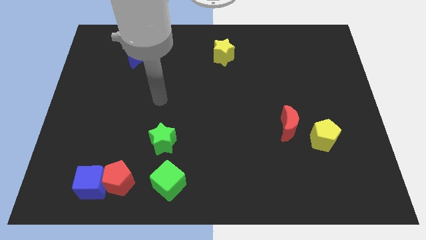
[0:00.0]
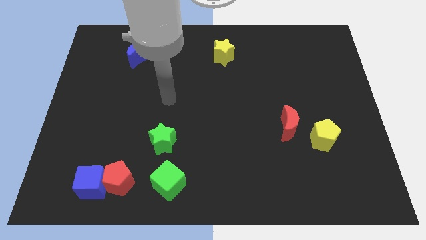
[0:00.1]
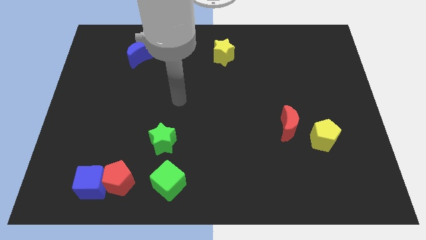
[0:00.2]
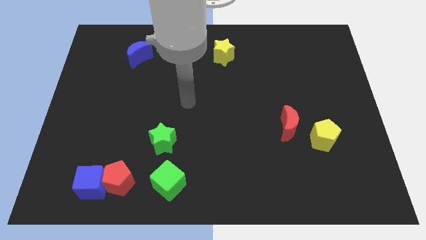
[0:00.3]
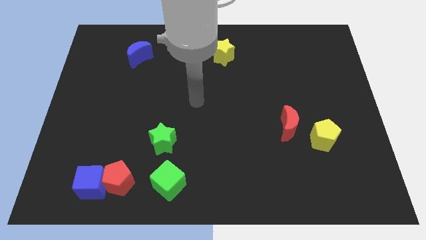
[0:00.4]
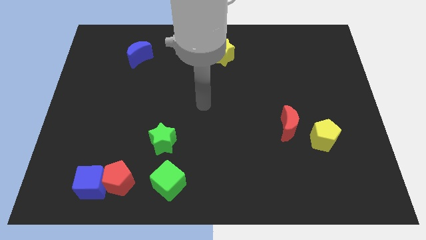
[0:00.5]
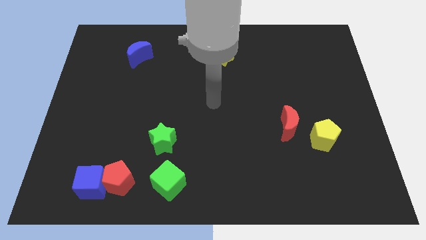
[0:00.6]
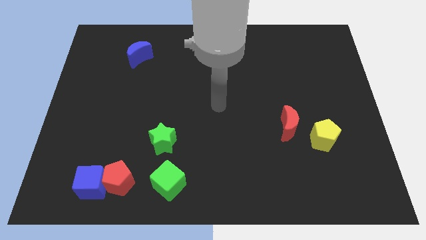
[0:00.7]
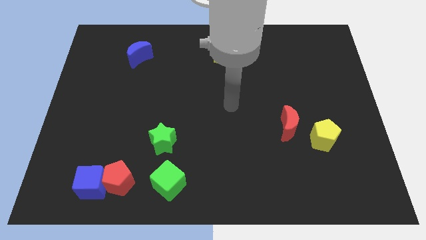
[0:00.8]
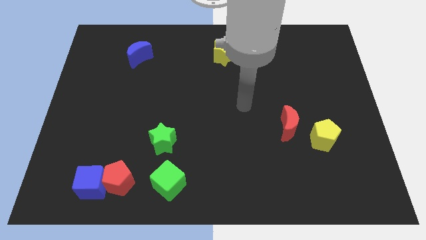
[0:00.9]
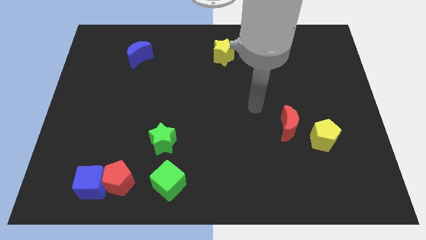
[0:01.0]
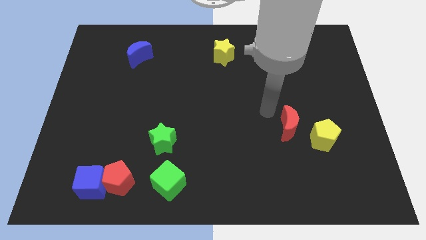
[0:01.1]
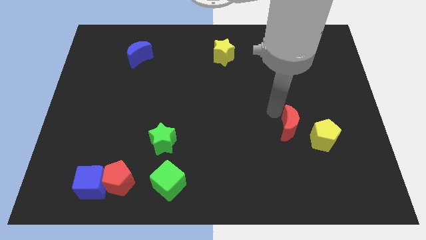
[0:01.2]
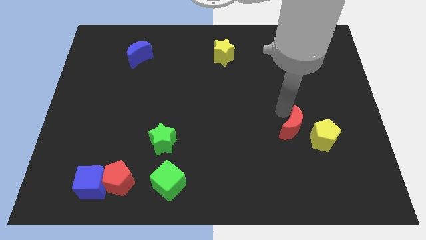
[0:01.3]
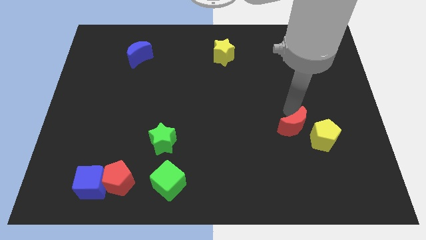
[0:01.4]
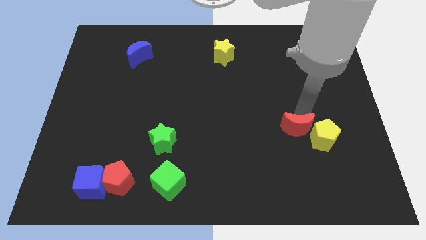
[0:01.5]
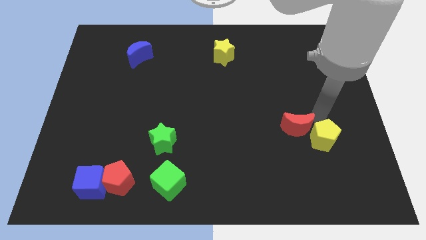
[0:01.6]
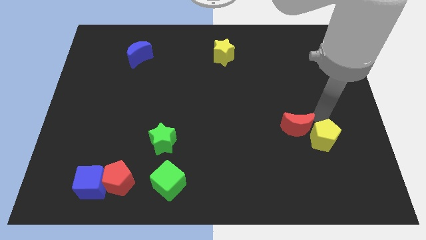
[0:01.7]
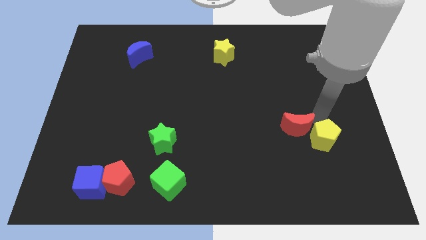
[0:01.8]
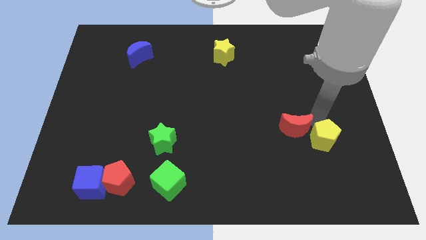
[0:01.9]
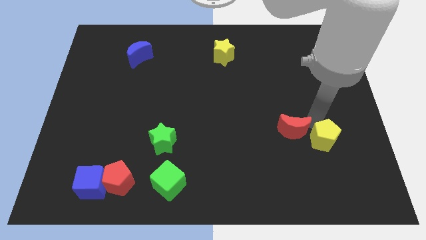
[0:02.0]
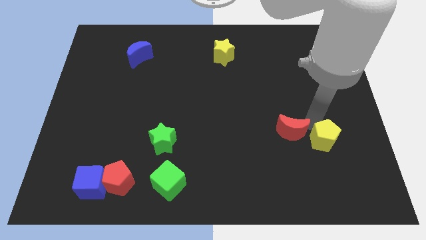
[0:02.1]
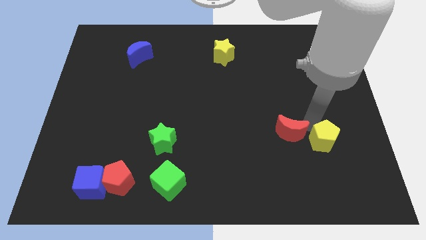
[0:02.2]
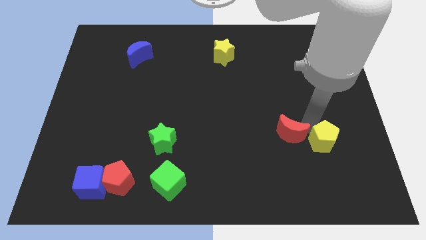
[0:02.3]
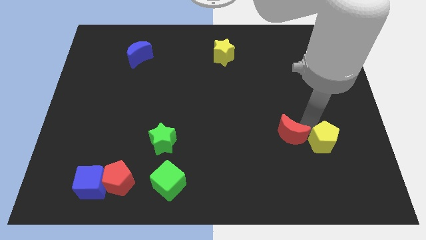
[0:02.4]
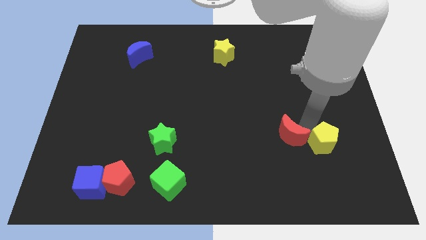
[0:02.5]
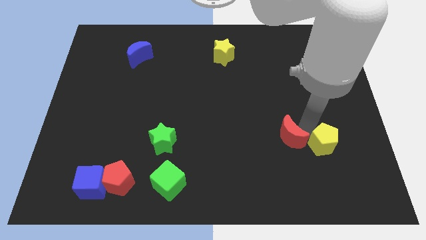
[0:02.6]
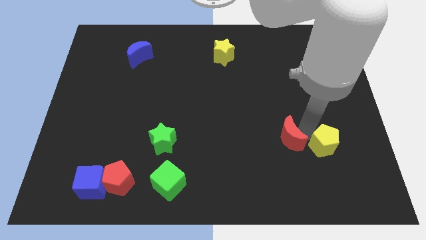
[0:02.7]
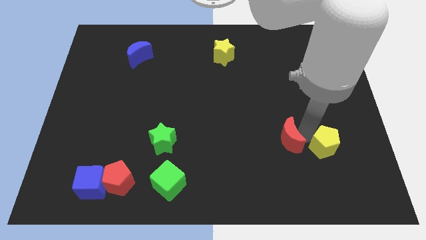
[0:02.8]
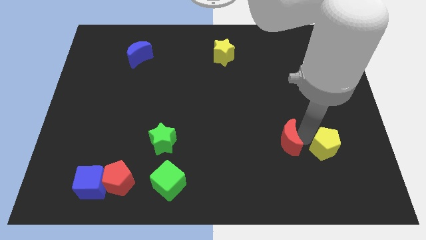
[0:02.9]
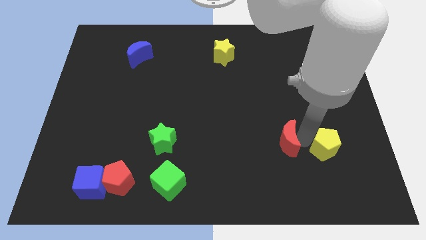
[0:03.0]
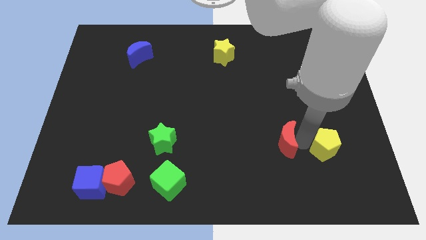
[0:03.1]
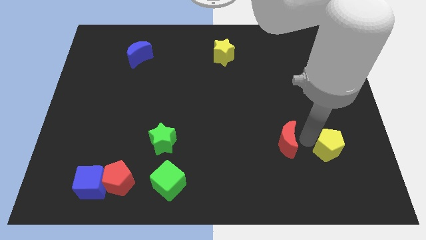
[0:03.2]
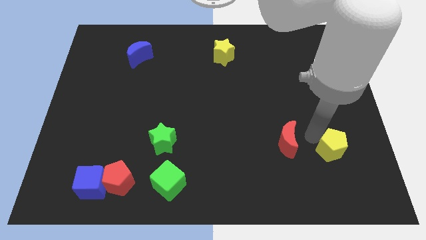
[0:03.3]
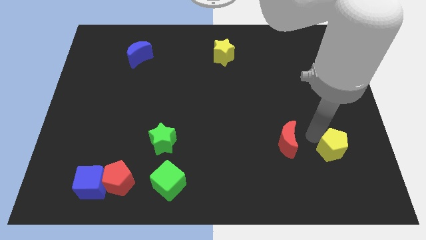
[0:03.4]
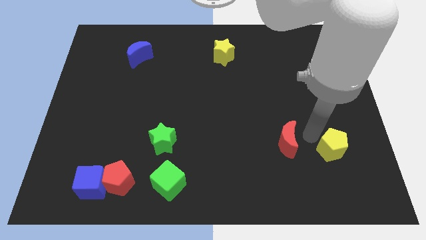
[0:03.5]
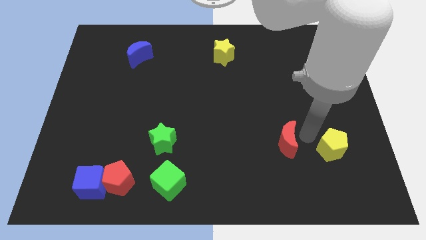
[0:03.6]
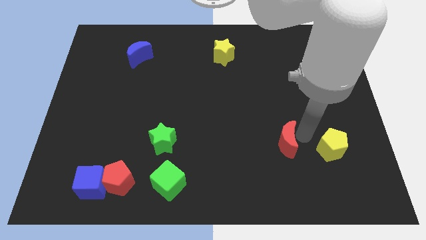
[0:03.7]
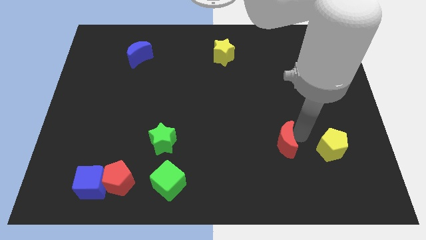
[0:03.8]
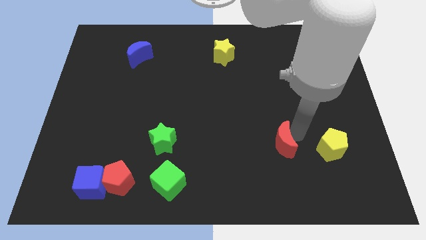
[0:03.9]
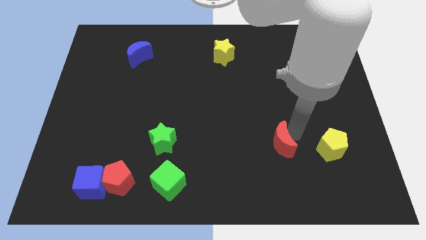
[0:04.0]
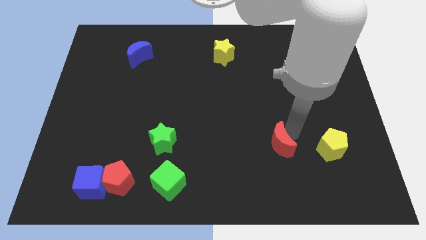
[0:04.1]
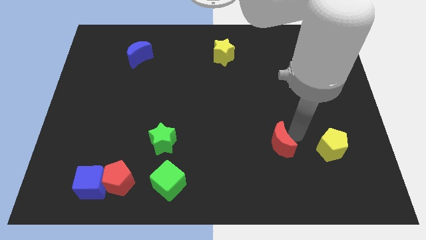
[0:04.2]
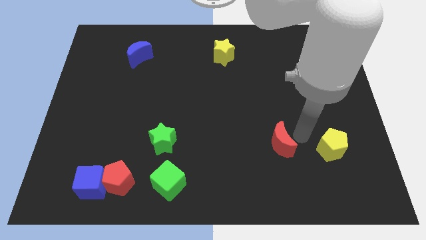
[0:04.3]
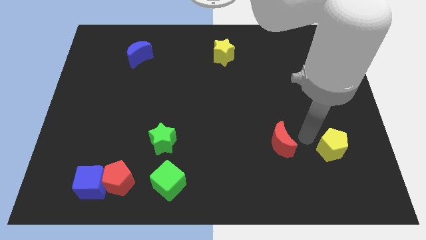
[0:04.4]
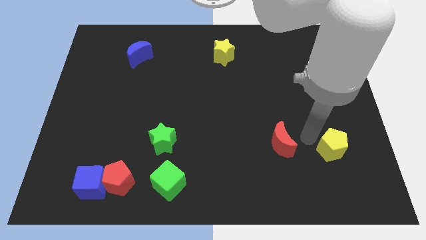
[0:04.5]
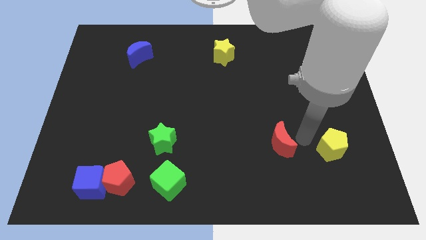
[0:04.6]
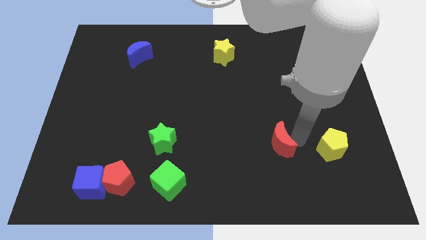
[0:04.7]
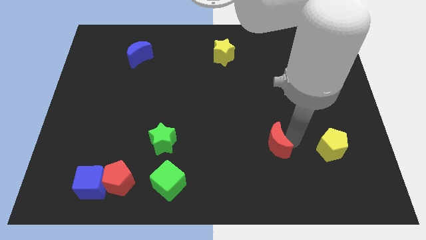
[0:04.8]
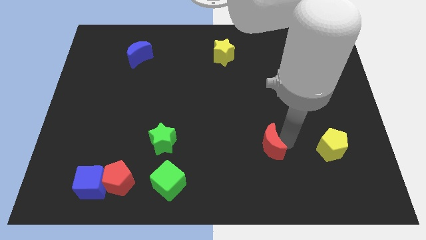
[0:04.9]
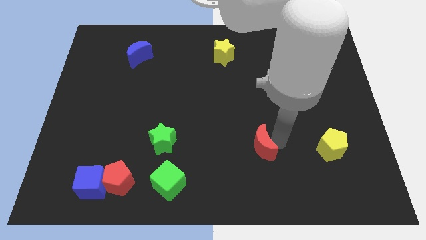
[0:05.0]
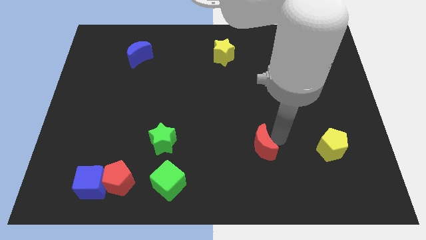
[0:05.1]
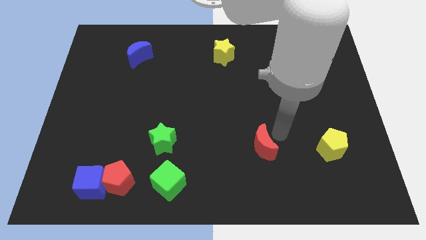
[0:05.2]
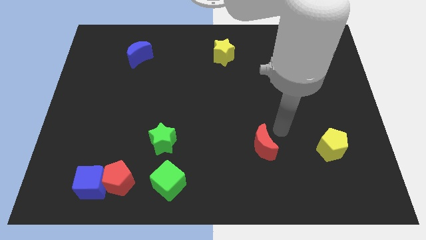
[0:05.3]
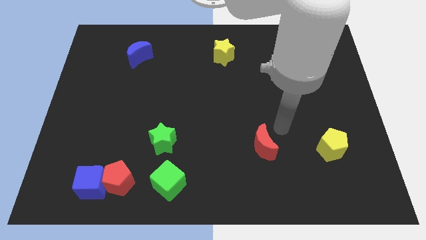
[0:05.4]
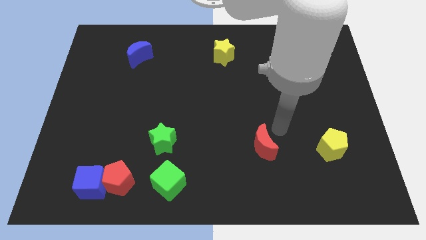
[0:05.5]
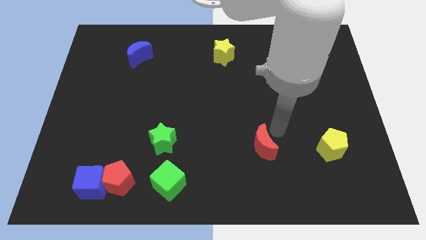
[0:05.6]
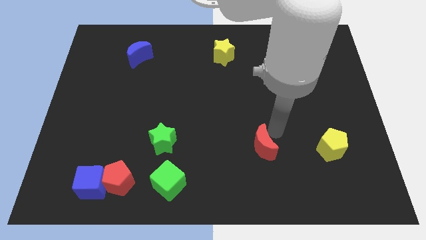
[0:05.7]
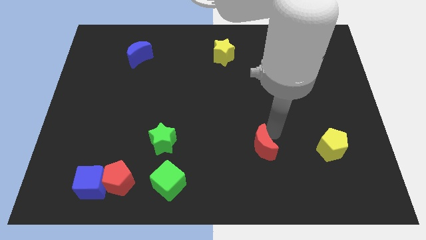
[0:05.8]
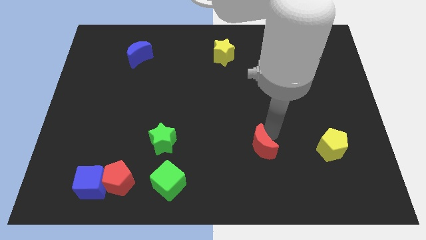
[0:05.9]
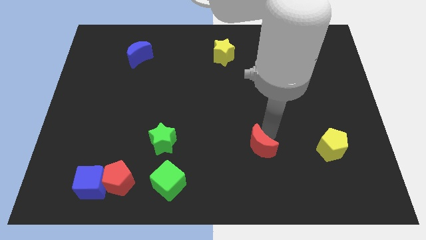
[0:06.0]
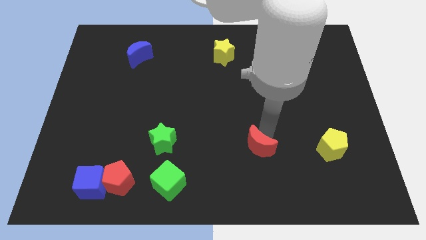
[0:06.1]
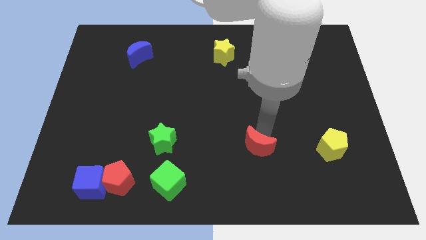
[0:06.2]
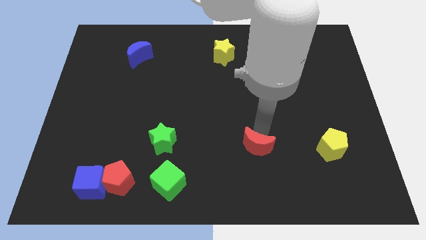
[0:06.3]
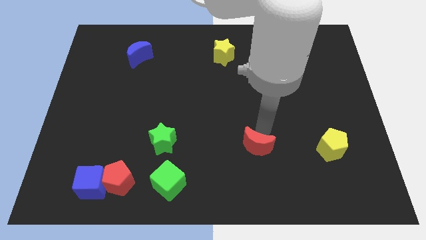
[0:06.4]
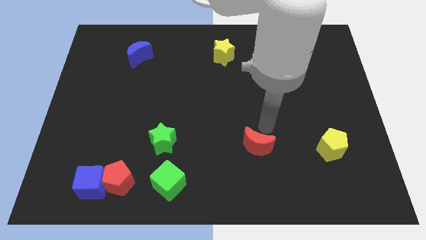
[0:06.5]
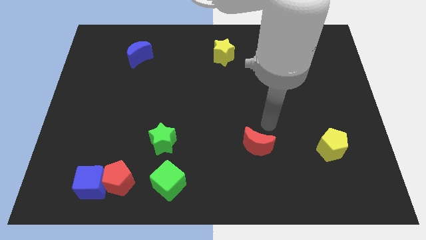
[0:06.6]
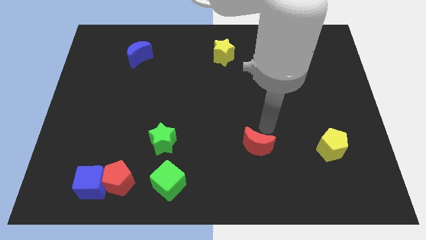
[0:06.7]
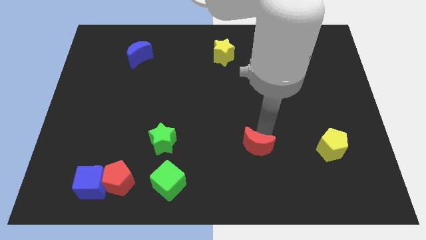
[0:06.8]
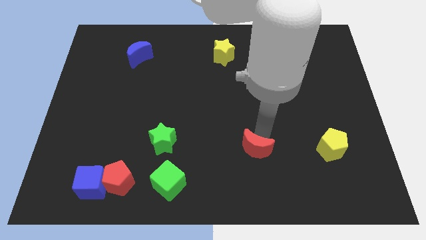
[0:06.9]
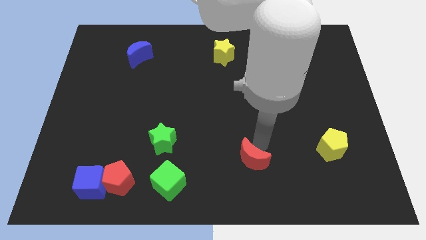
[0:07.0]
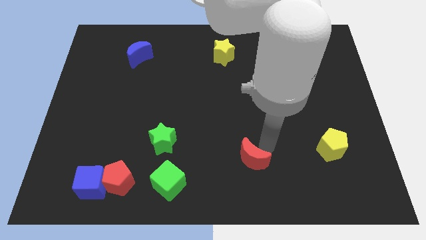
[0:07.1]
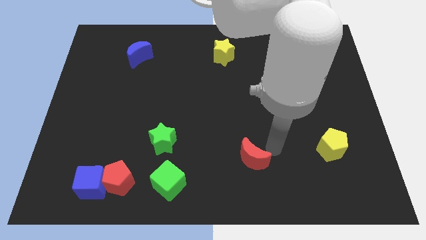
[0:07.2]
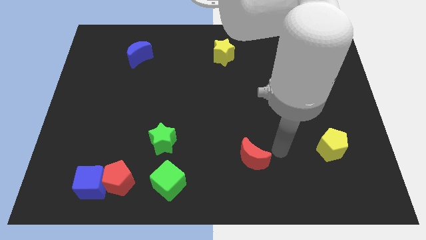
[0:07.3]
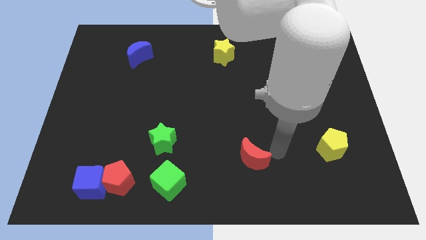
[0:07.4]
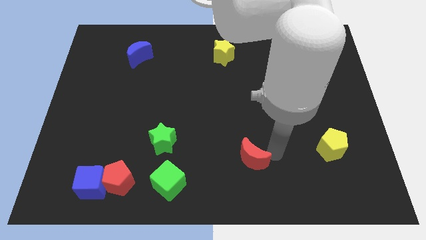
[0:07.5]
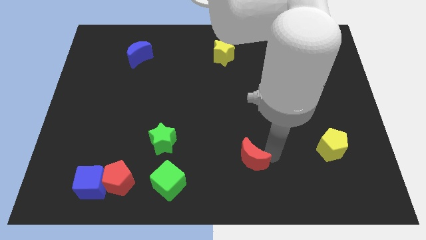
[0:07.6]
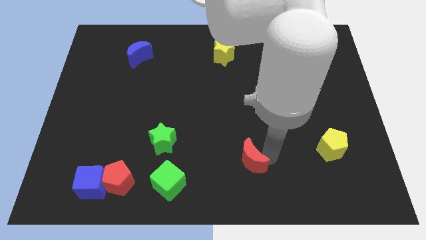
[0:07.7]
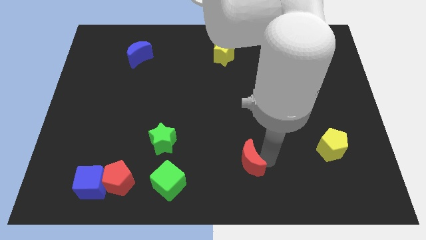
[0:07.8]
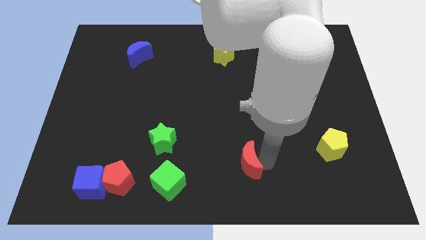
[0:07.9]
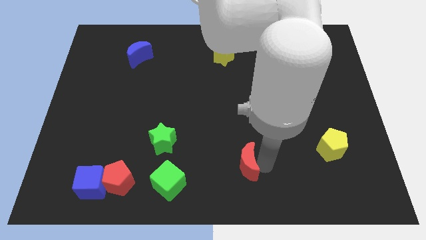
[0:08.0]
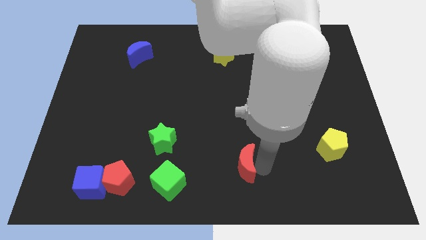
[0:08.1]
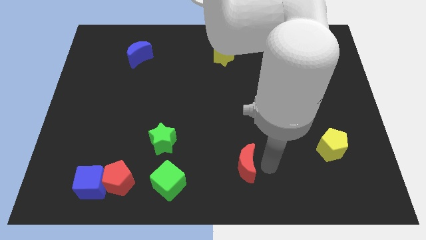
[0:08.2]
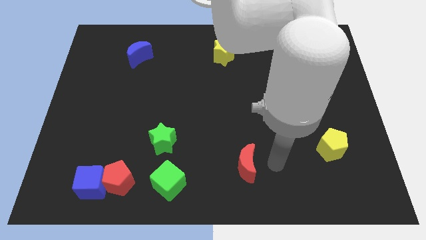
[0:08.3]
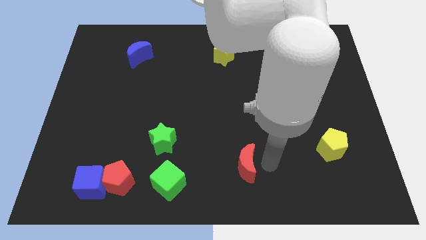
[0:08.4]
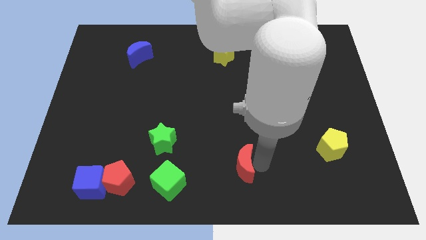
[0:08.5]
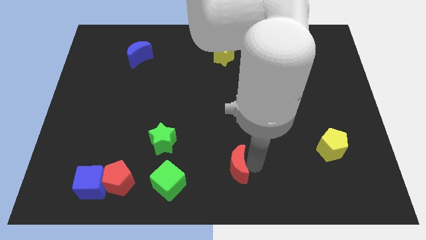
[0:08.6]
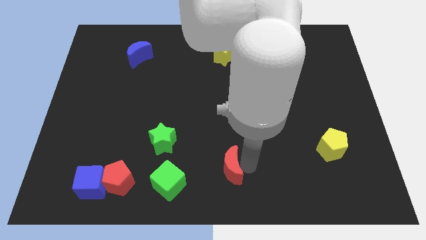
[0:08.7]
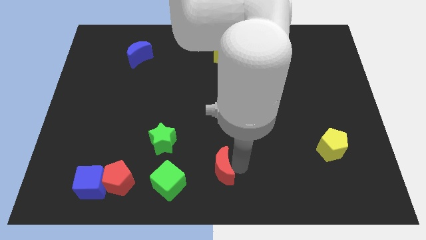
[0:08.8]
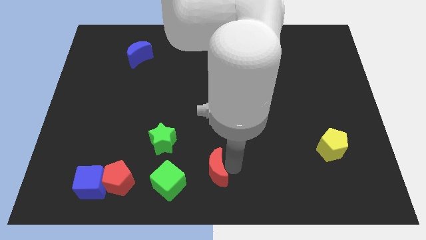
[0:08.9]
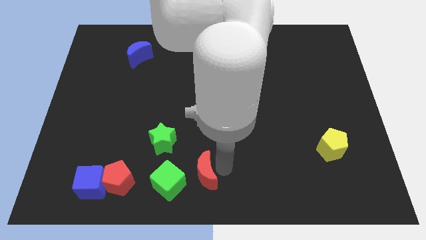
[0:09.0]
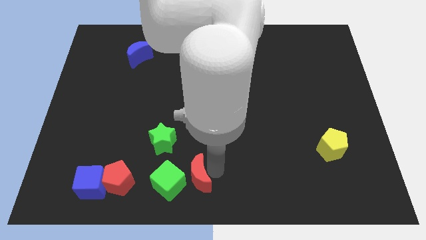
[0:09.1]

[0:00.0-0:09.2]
put the red moon towards the green cube
